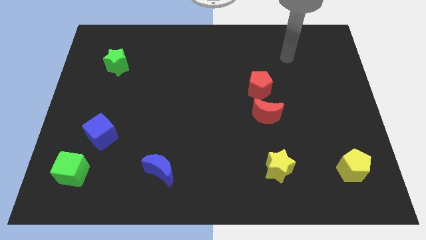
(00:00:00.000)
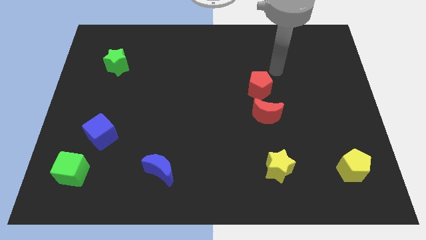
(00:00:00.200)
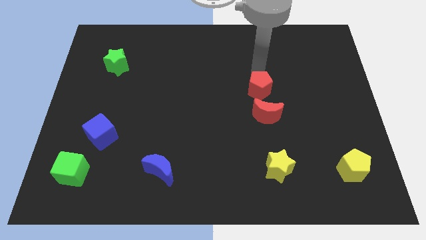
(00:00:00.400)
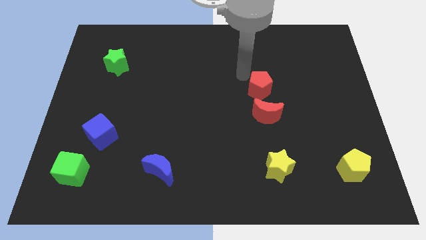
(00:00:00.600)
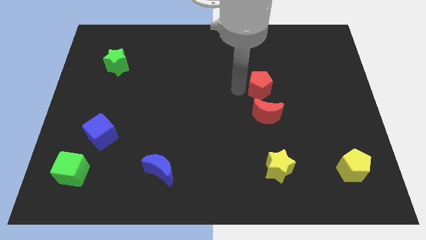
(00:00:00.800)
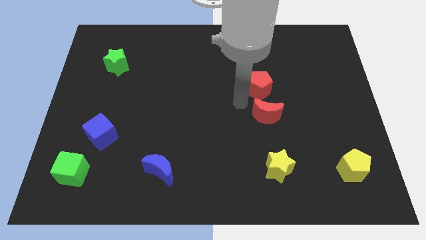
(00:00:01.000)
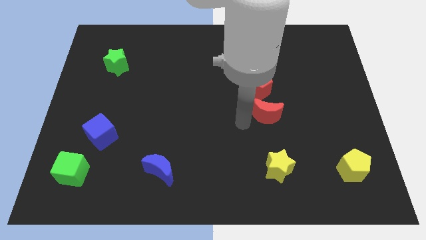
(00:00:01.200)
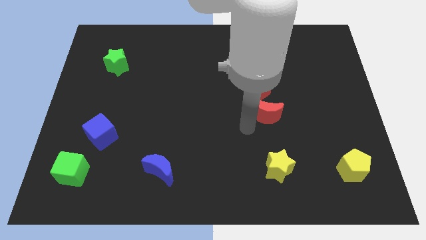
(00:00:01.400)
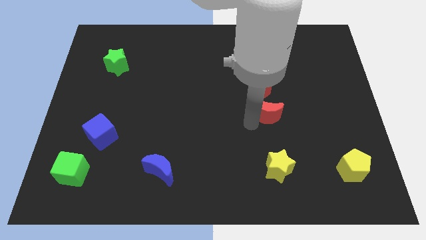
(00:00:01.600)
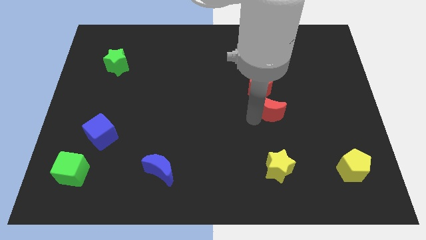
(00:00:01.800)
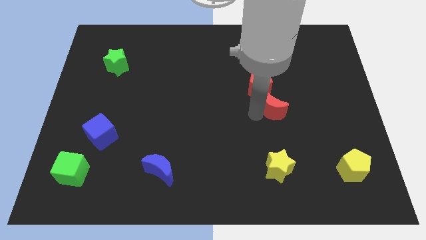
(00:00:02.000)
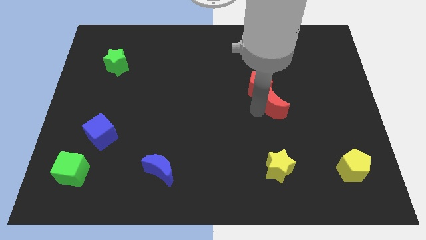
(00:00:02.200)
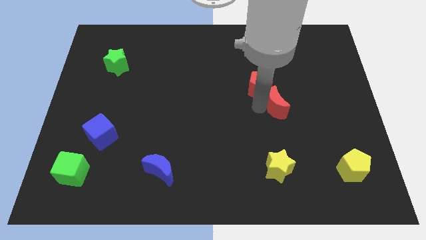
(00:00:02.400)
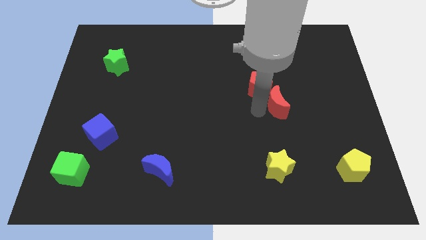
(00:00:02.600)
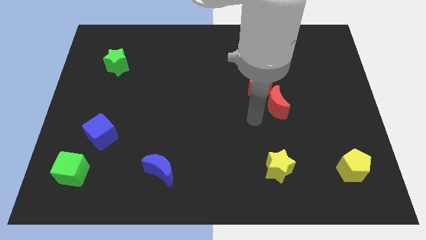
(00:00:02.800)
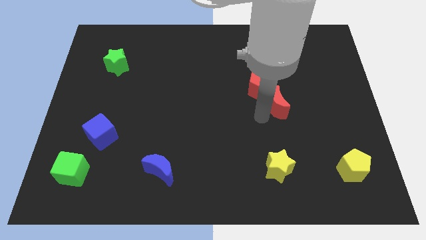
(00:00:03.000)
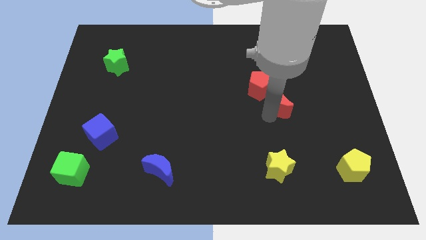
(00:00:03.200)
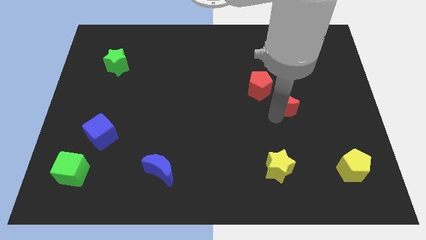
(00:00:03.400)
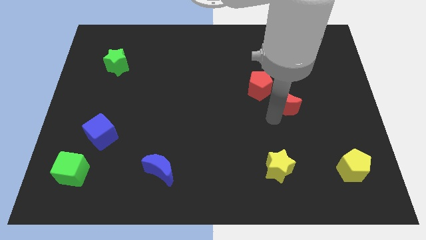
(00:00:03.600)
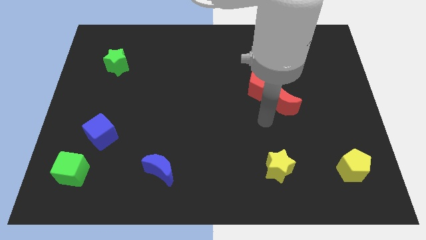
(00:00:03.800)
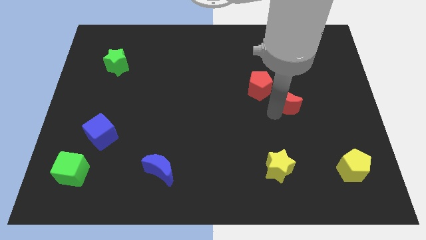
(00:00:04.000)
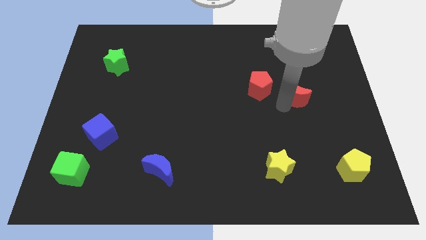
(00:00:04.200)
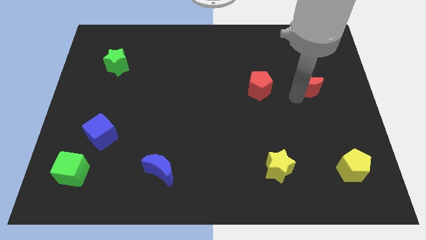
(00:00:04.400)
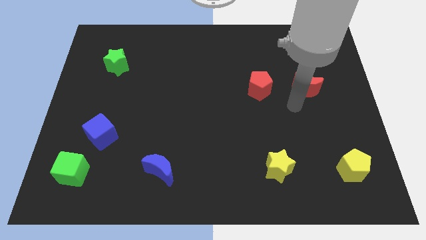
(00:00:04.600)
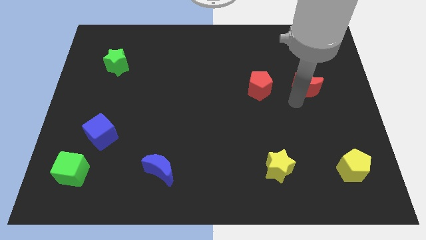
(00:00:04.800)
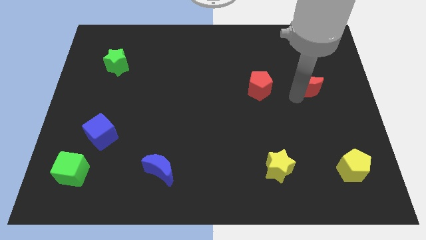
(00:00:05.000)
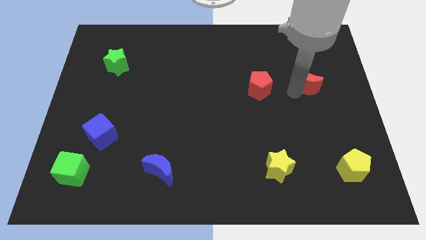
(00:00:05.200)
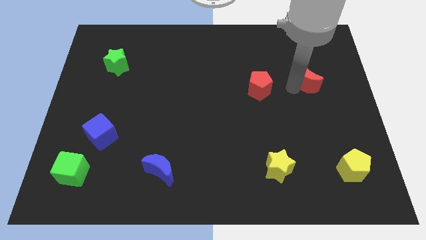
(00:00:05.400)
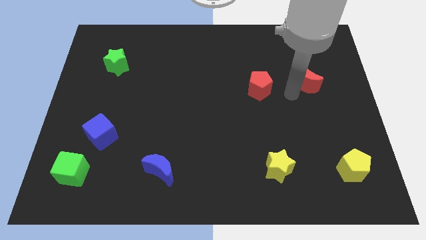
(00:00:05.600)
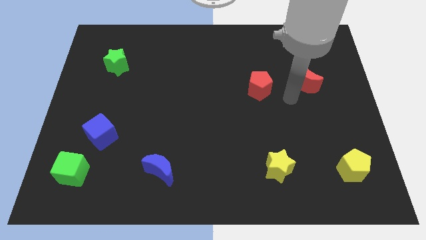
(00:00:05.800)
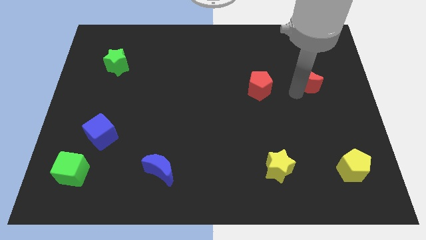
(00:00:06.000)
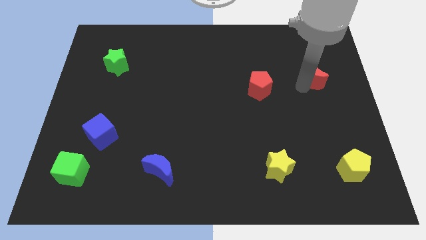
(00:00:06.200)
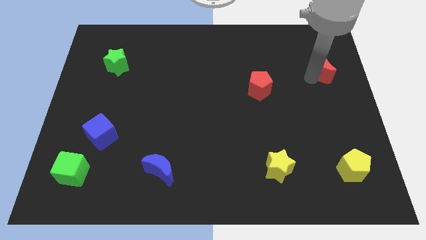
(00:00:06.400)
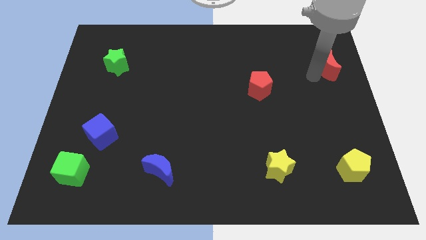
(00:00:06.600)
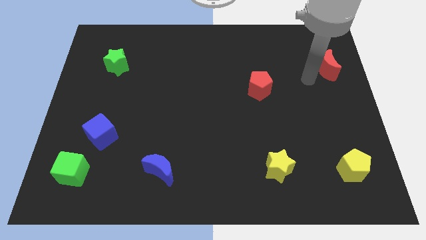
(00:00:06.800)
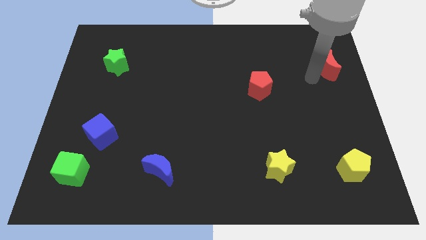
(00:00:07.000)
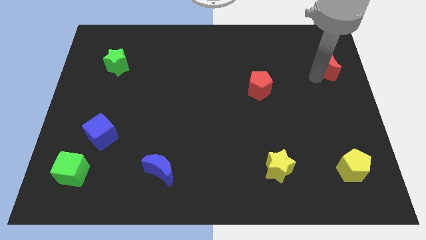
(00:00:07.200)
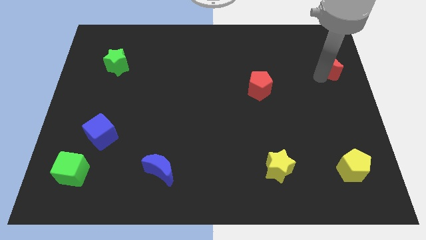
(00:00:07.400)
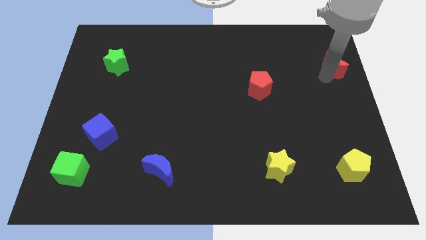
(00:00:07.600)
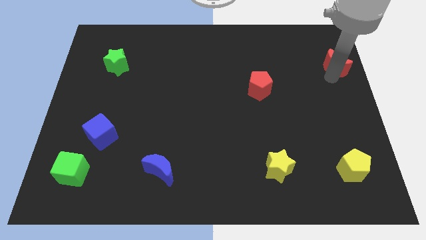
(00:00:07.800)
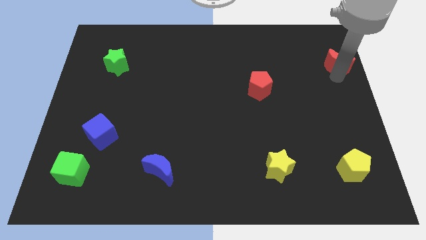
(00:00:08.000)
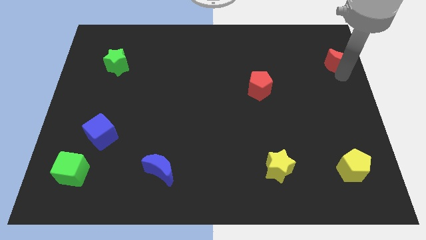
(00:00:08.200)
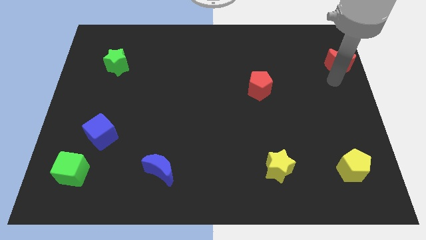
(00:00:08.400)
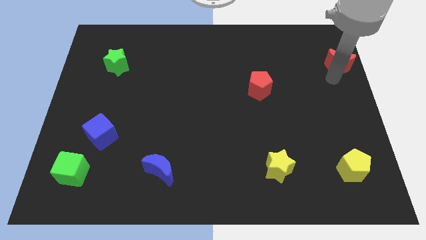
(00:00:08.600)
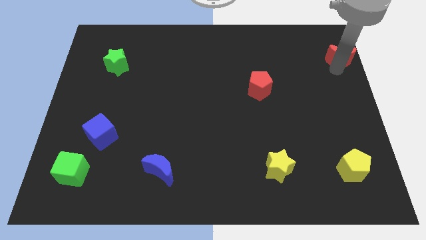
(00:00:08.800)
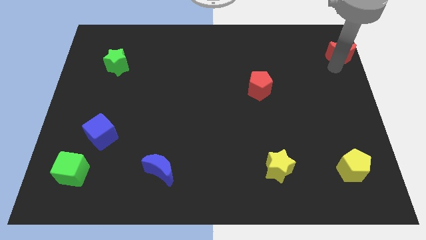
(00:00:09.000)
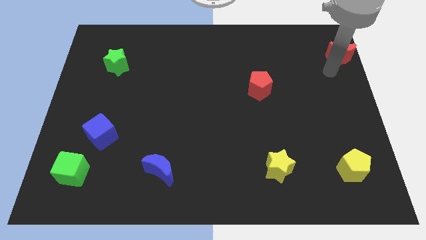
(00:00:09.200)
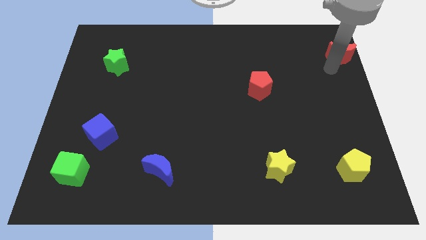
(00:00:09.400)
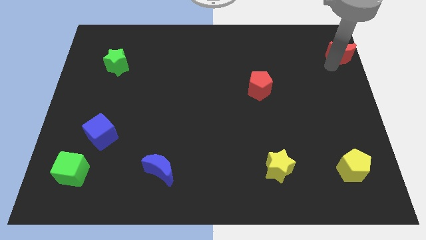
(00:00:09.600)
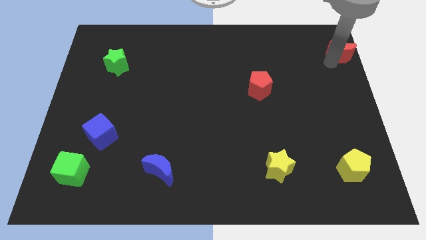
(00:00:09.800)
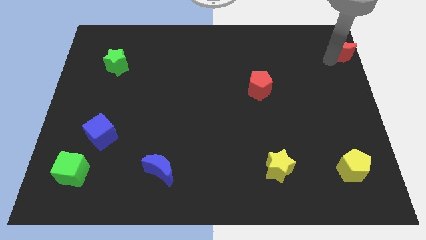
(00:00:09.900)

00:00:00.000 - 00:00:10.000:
push the red moon to the top right corner

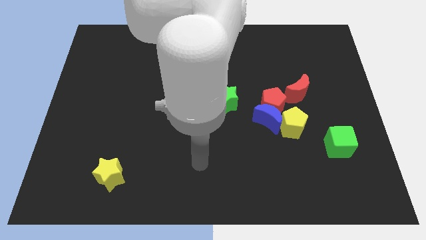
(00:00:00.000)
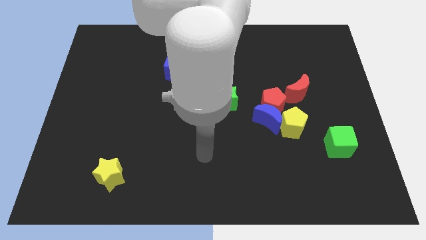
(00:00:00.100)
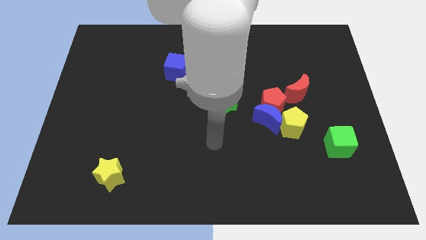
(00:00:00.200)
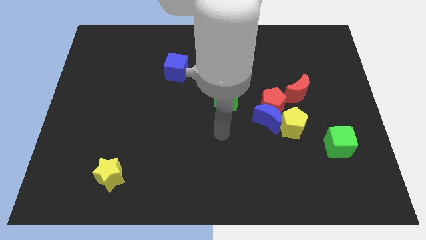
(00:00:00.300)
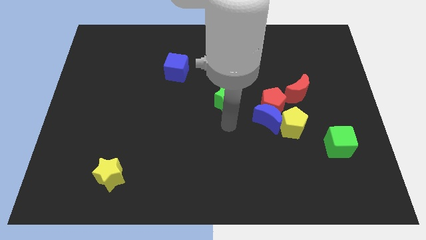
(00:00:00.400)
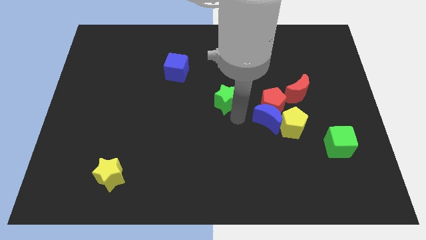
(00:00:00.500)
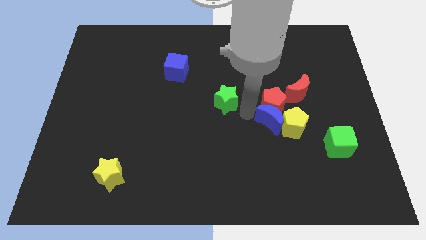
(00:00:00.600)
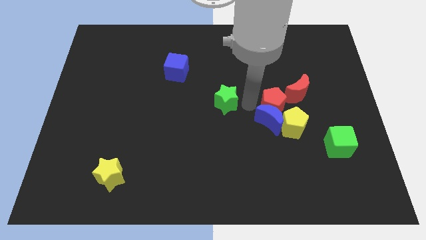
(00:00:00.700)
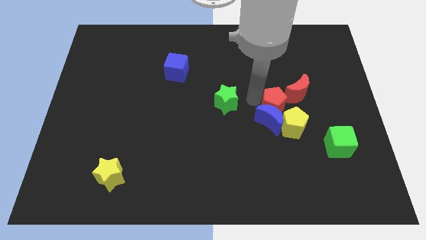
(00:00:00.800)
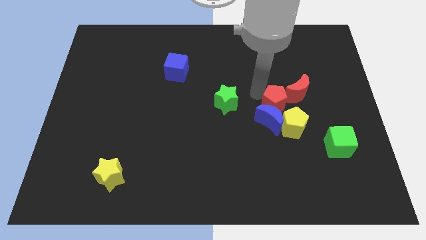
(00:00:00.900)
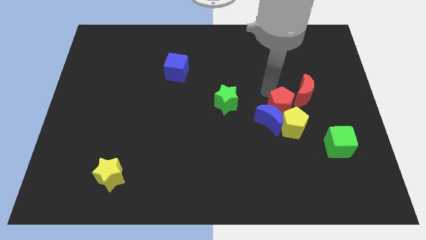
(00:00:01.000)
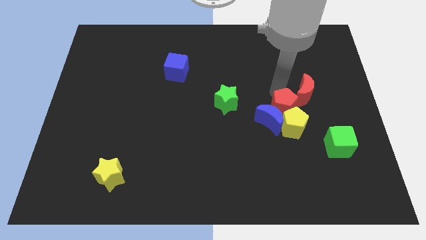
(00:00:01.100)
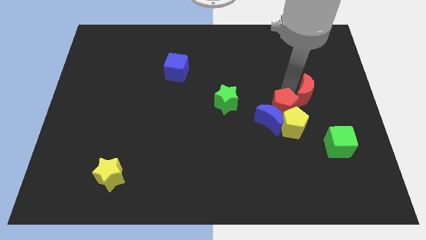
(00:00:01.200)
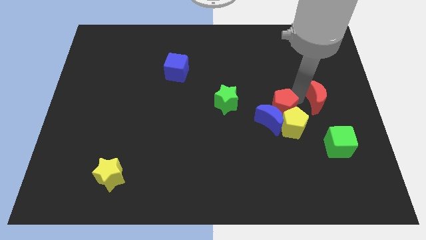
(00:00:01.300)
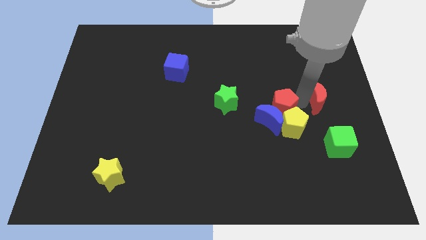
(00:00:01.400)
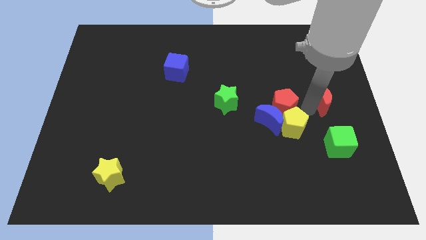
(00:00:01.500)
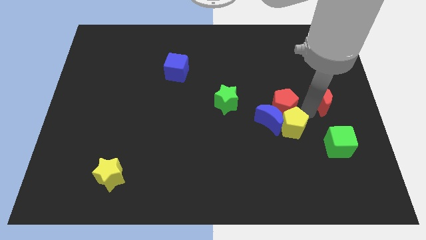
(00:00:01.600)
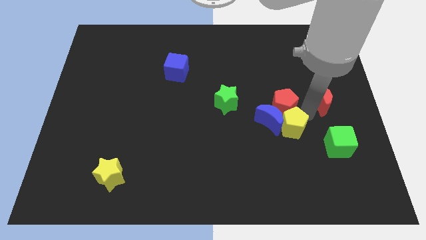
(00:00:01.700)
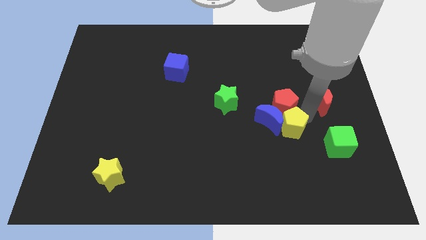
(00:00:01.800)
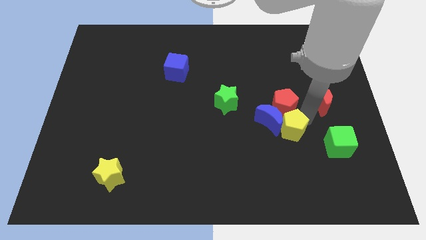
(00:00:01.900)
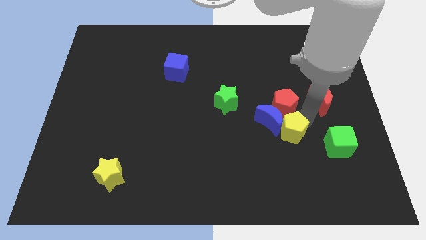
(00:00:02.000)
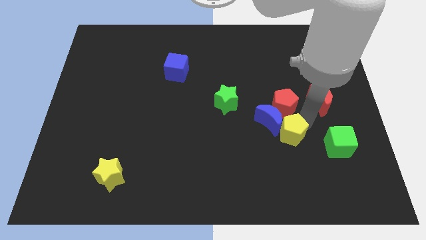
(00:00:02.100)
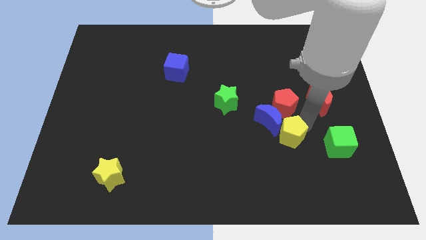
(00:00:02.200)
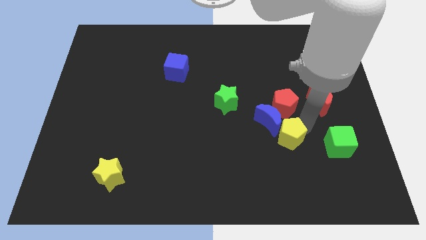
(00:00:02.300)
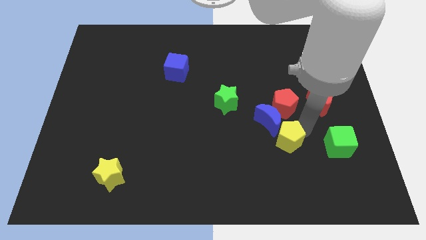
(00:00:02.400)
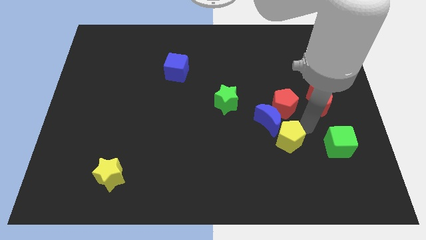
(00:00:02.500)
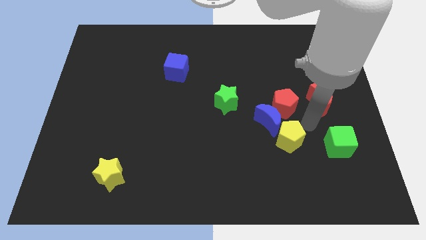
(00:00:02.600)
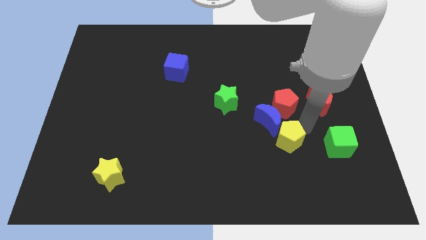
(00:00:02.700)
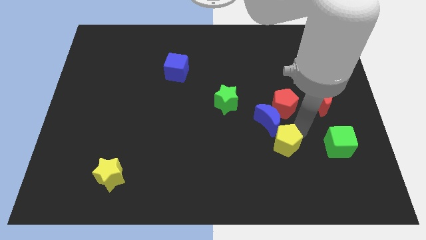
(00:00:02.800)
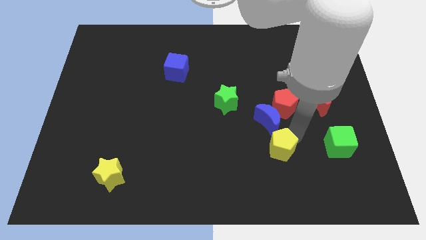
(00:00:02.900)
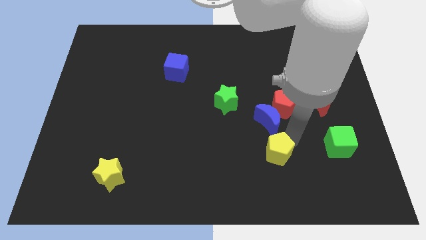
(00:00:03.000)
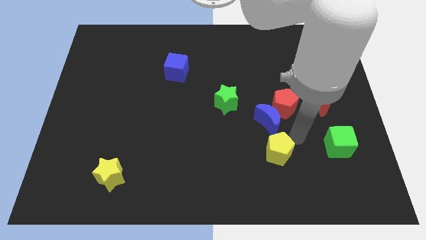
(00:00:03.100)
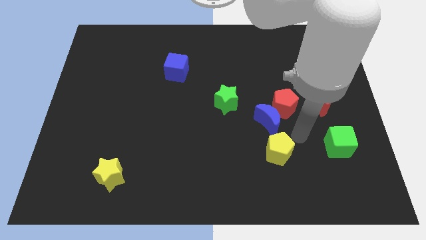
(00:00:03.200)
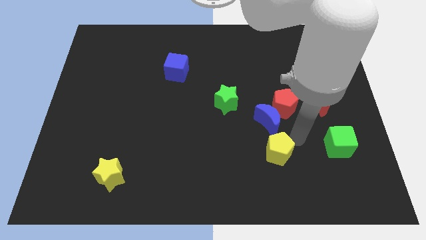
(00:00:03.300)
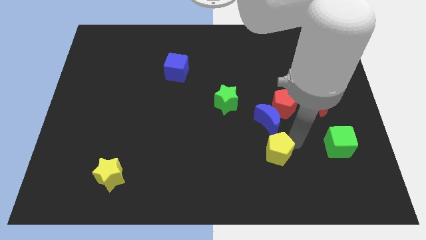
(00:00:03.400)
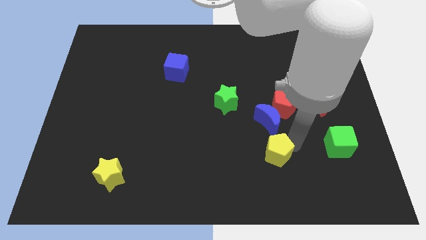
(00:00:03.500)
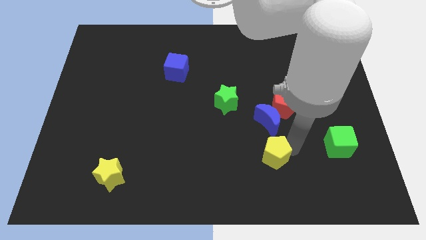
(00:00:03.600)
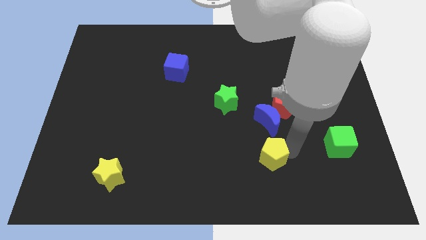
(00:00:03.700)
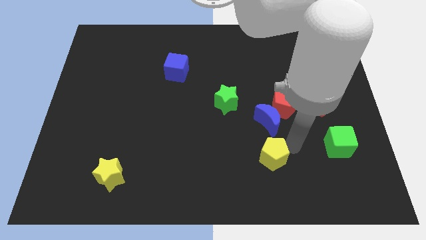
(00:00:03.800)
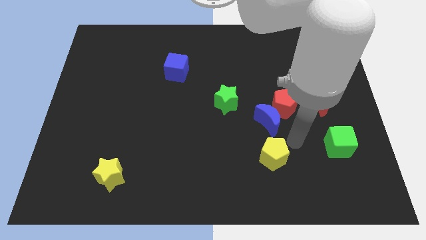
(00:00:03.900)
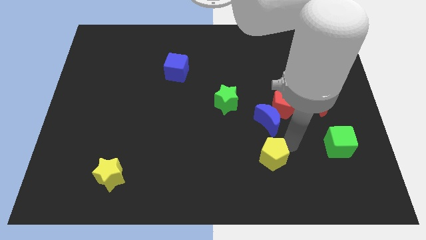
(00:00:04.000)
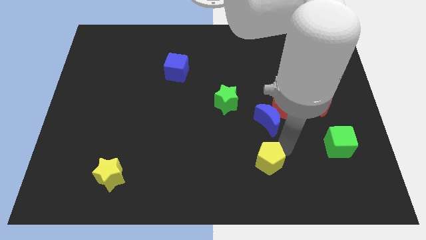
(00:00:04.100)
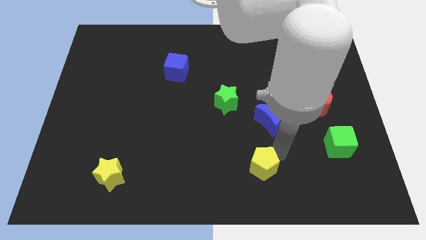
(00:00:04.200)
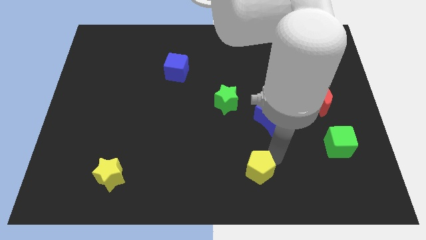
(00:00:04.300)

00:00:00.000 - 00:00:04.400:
move the yellow pentagon to the bottom side
